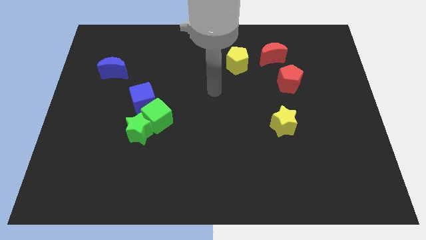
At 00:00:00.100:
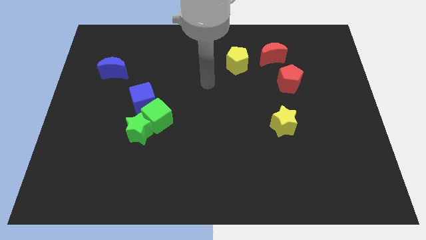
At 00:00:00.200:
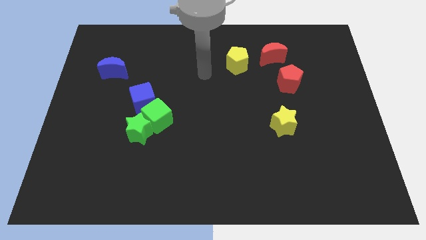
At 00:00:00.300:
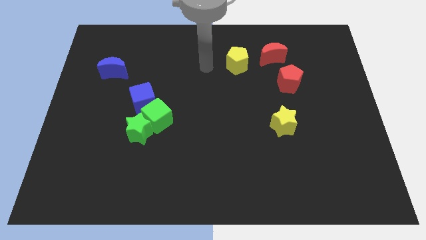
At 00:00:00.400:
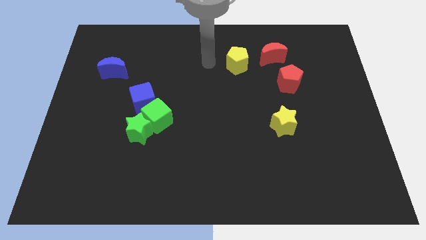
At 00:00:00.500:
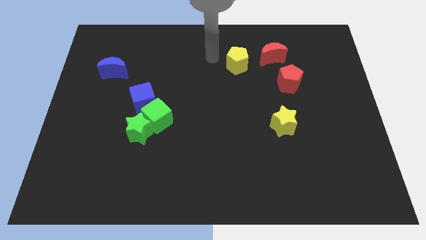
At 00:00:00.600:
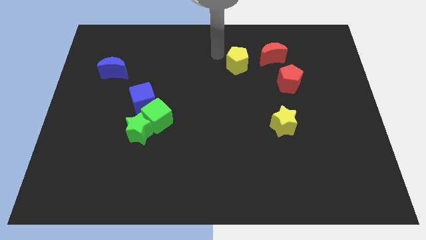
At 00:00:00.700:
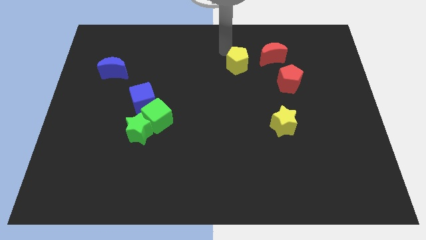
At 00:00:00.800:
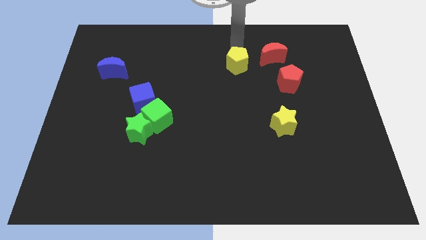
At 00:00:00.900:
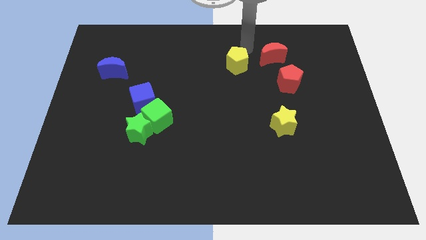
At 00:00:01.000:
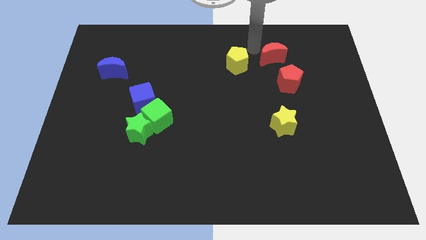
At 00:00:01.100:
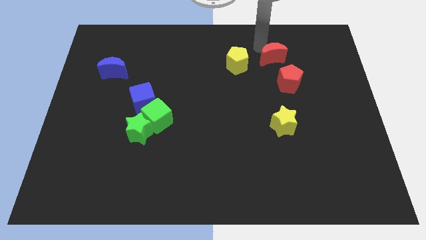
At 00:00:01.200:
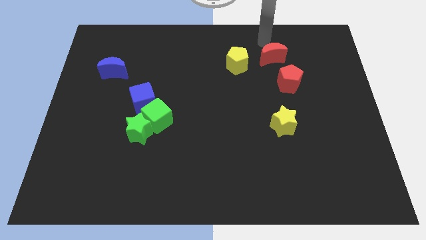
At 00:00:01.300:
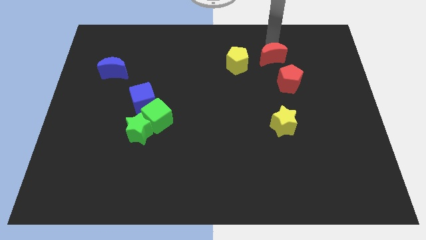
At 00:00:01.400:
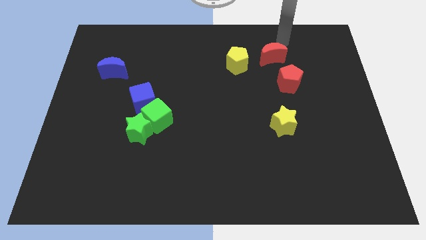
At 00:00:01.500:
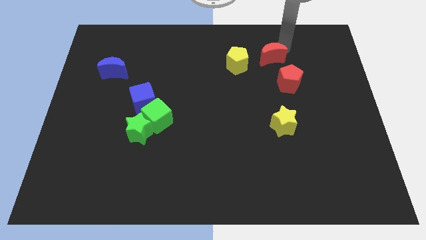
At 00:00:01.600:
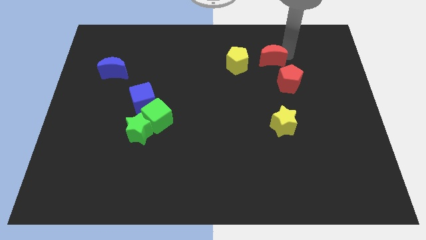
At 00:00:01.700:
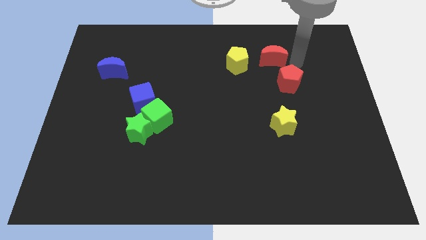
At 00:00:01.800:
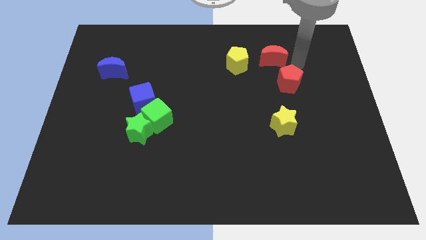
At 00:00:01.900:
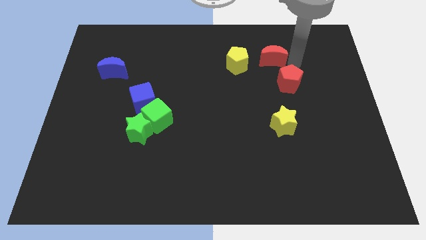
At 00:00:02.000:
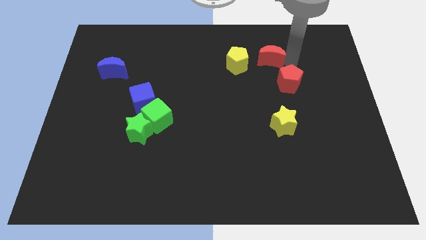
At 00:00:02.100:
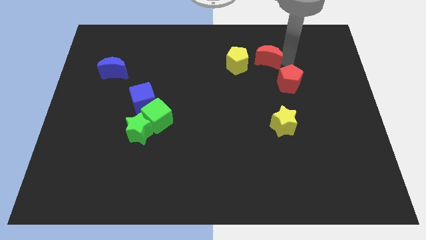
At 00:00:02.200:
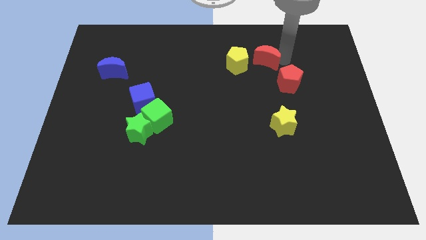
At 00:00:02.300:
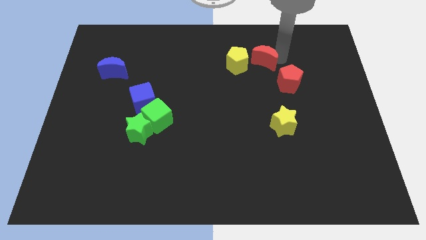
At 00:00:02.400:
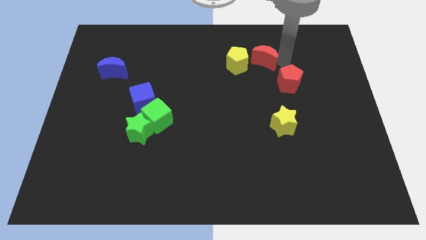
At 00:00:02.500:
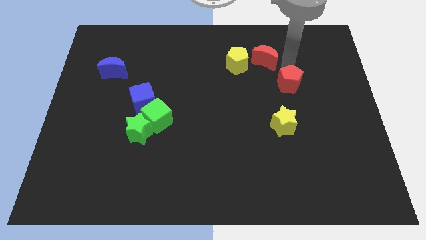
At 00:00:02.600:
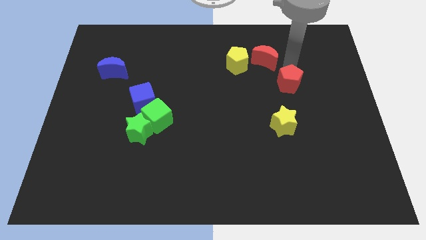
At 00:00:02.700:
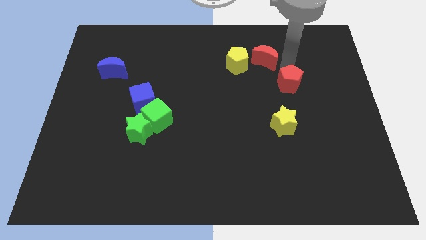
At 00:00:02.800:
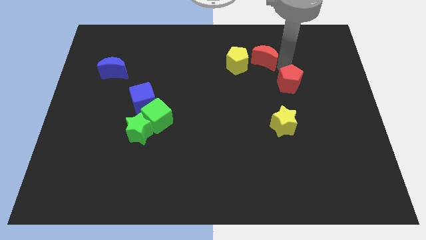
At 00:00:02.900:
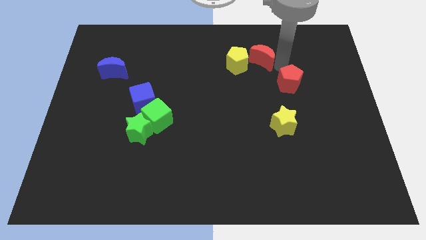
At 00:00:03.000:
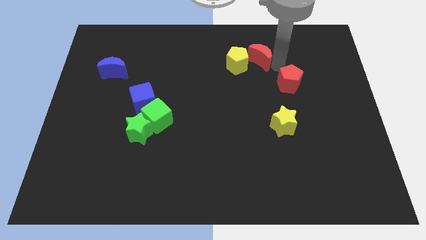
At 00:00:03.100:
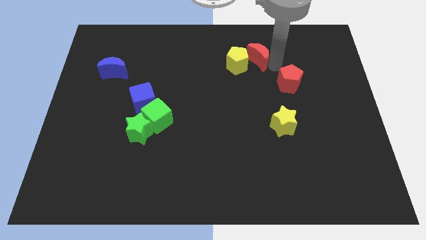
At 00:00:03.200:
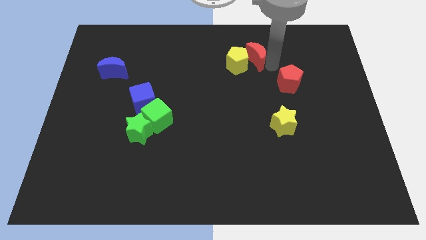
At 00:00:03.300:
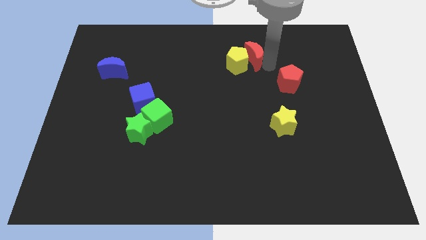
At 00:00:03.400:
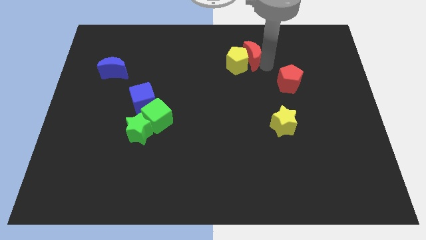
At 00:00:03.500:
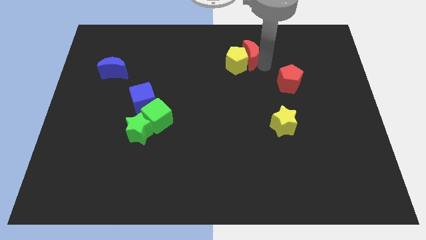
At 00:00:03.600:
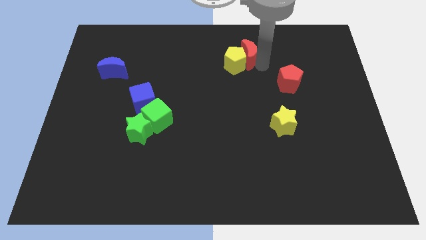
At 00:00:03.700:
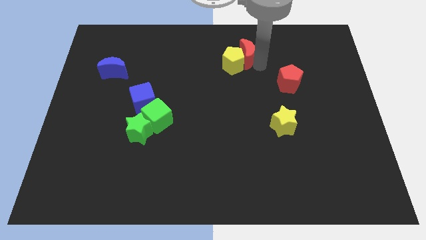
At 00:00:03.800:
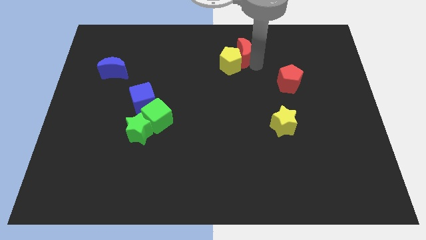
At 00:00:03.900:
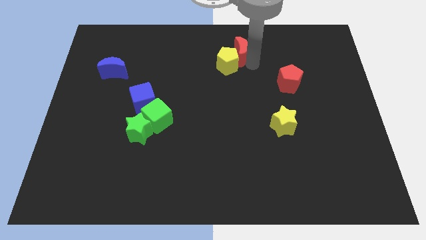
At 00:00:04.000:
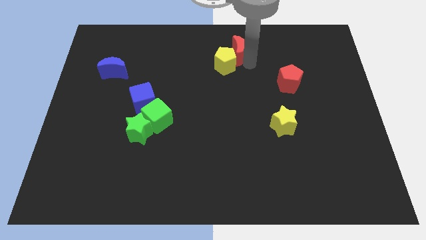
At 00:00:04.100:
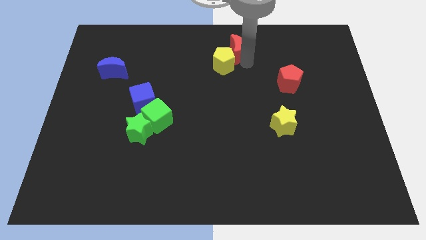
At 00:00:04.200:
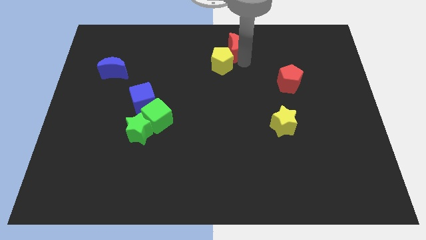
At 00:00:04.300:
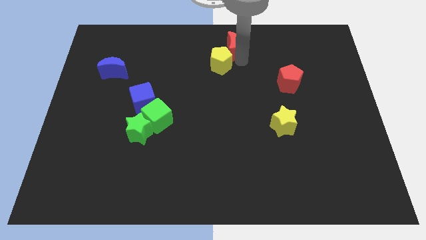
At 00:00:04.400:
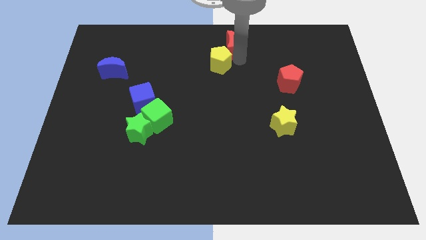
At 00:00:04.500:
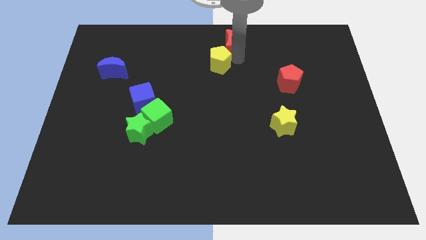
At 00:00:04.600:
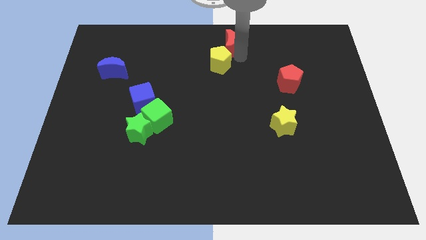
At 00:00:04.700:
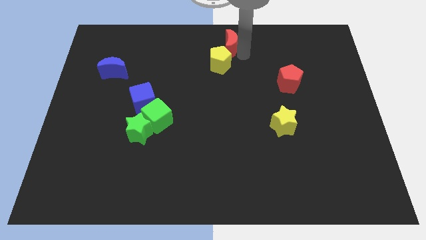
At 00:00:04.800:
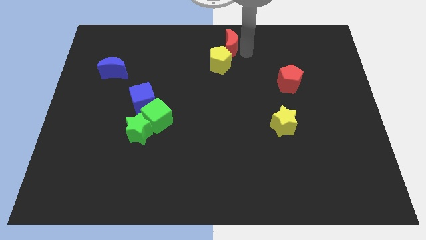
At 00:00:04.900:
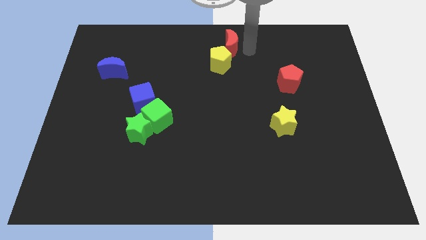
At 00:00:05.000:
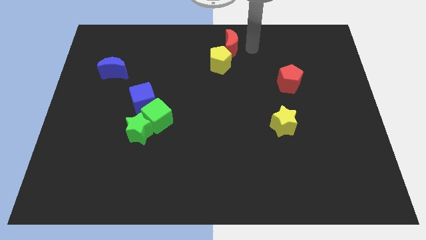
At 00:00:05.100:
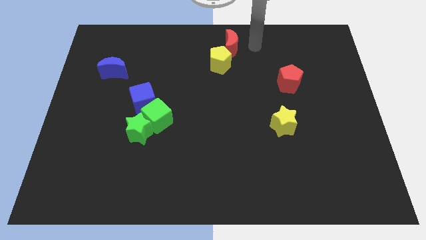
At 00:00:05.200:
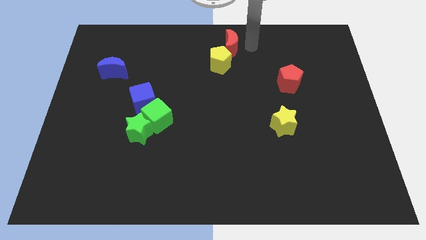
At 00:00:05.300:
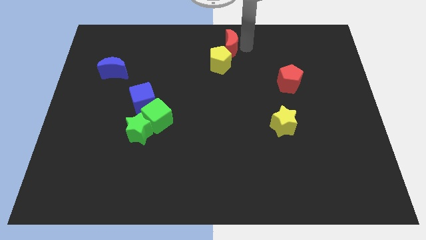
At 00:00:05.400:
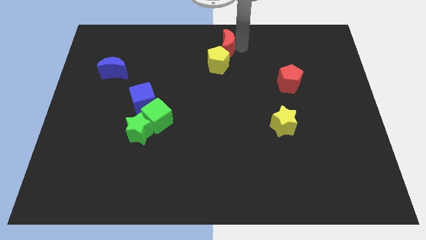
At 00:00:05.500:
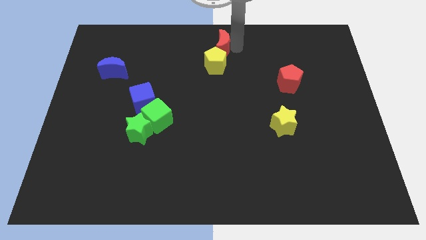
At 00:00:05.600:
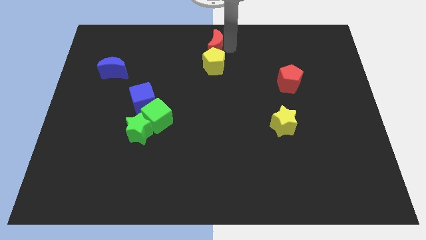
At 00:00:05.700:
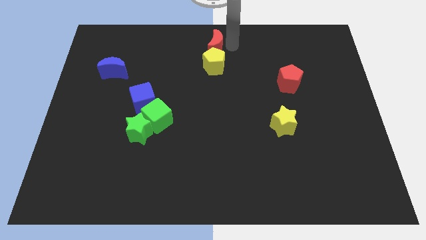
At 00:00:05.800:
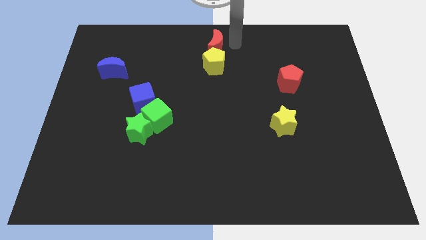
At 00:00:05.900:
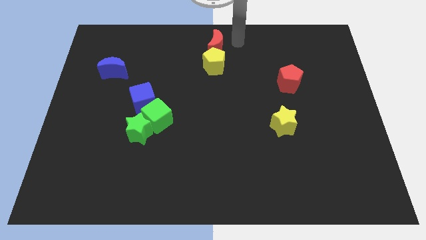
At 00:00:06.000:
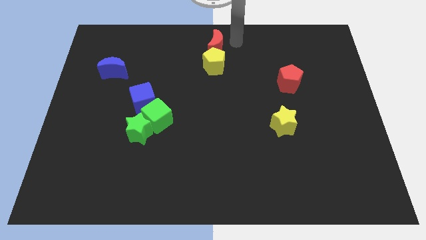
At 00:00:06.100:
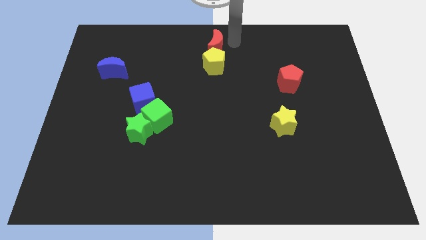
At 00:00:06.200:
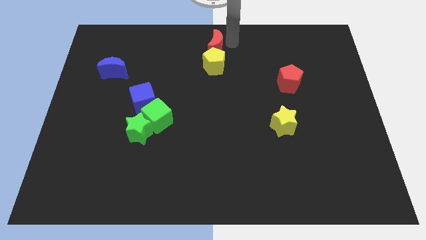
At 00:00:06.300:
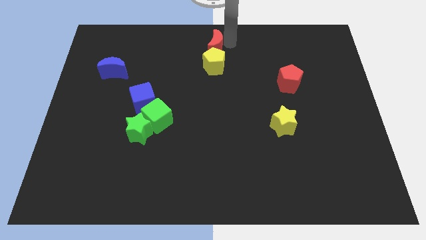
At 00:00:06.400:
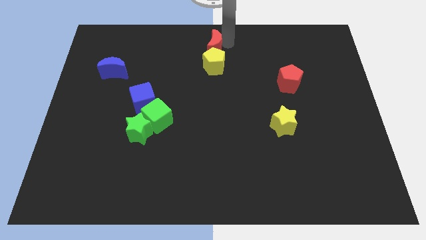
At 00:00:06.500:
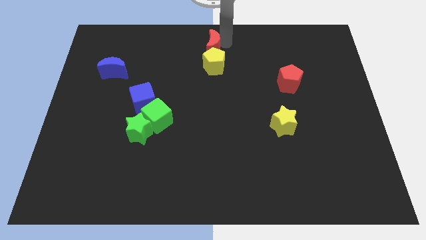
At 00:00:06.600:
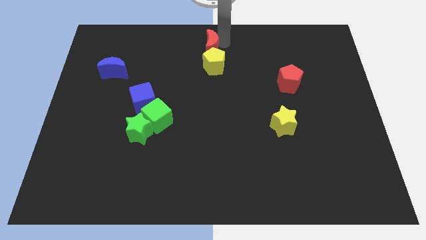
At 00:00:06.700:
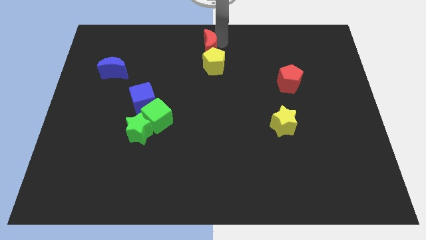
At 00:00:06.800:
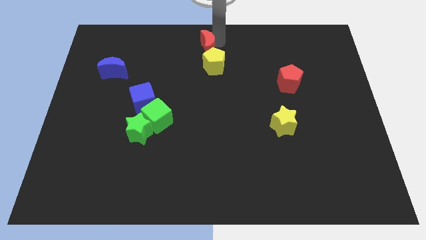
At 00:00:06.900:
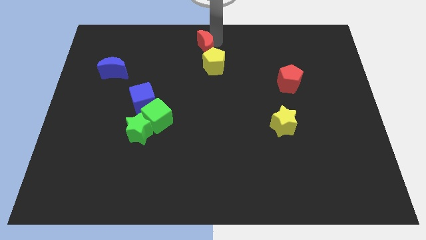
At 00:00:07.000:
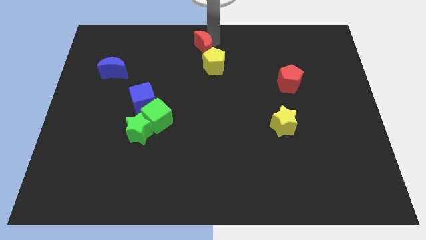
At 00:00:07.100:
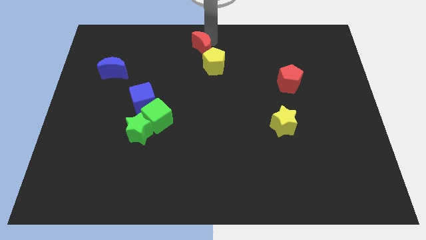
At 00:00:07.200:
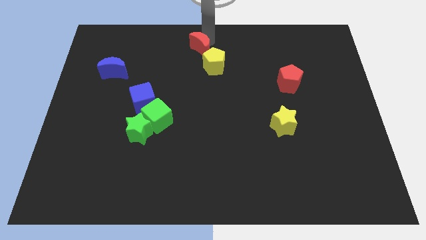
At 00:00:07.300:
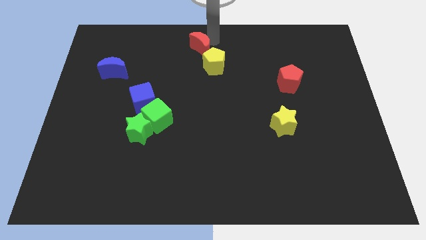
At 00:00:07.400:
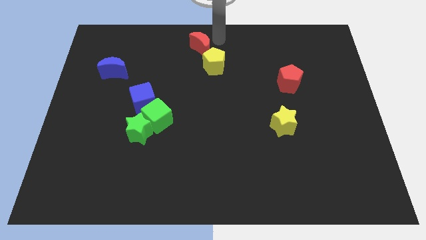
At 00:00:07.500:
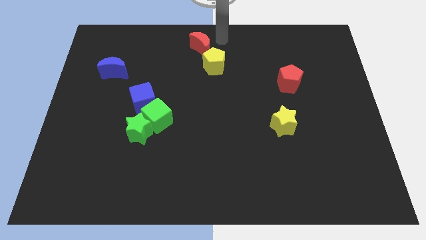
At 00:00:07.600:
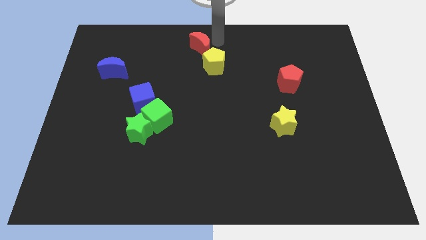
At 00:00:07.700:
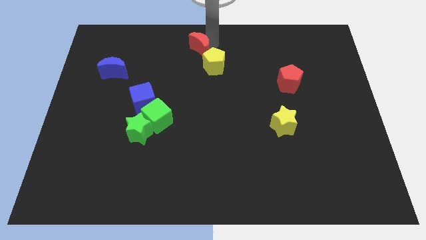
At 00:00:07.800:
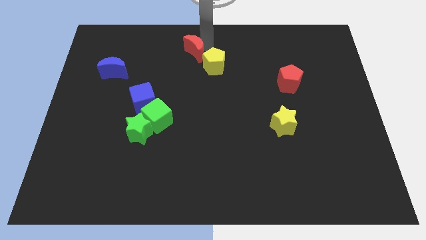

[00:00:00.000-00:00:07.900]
move the red moon to the left
